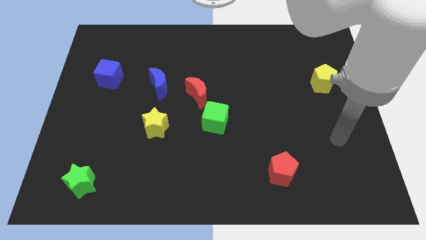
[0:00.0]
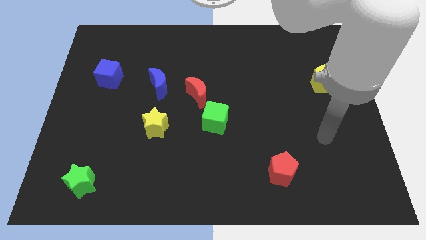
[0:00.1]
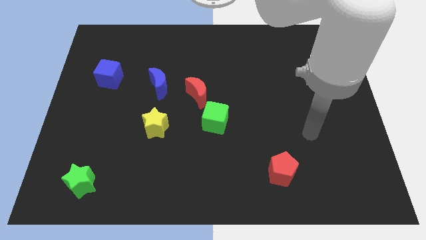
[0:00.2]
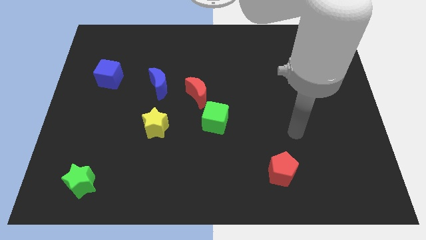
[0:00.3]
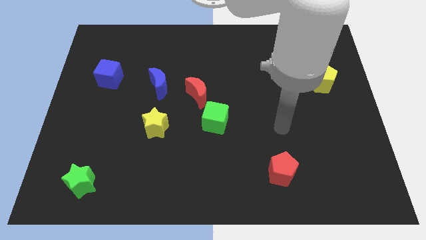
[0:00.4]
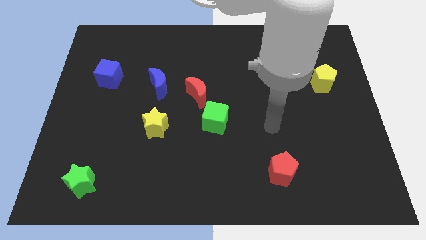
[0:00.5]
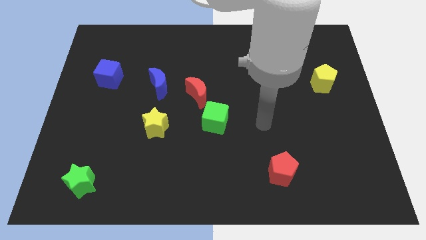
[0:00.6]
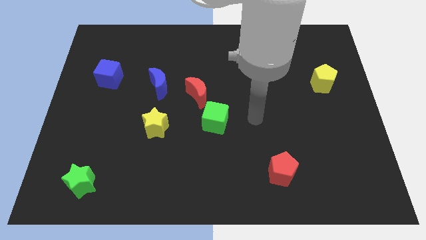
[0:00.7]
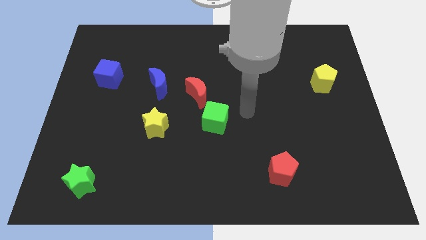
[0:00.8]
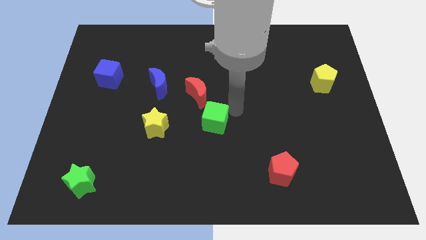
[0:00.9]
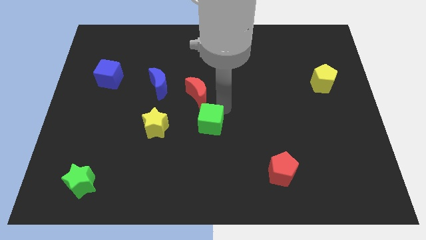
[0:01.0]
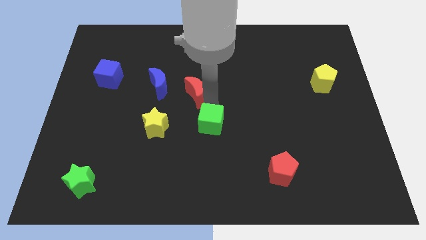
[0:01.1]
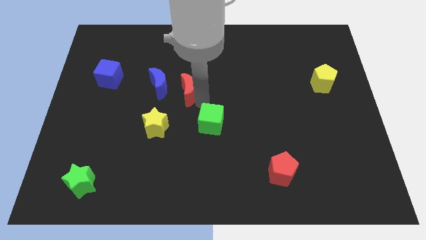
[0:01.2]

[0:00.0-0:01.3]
move the green cube away from the red moon

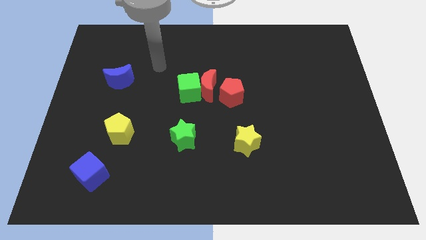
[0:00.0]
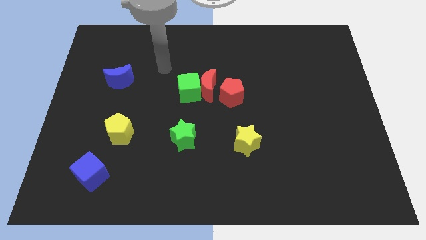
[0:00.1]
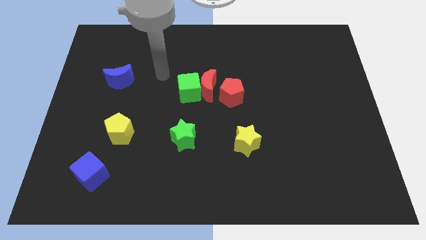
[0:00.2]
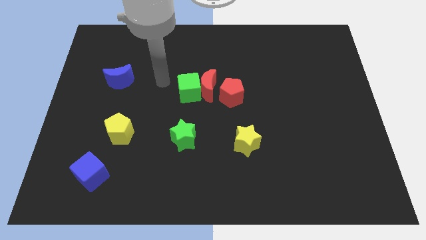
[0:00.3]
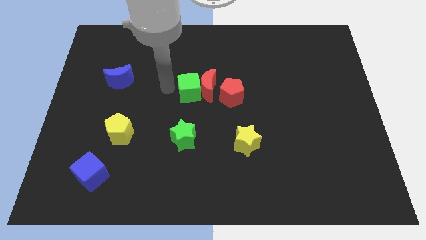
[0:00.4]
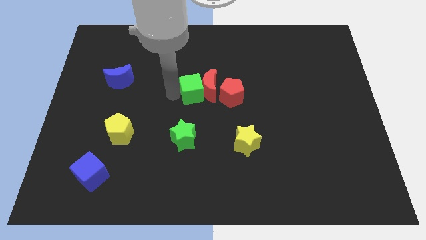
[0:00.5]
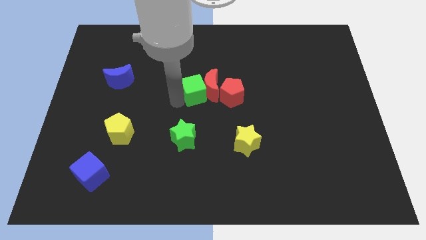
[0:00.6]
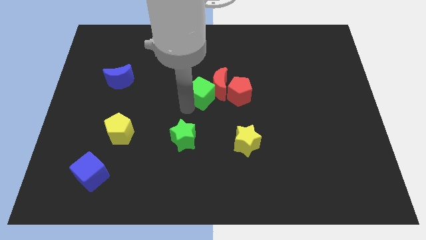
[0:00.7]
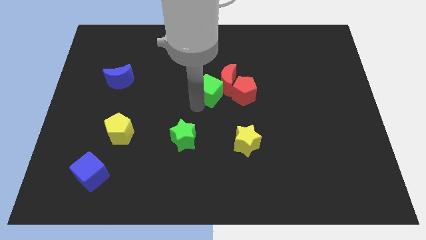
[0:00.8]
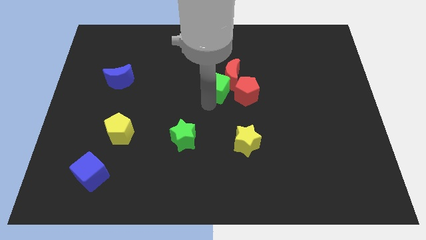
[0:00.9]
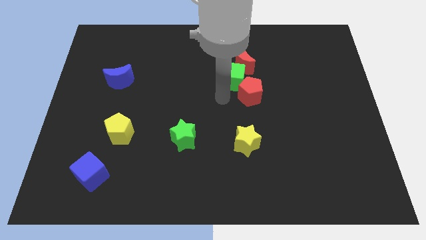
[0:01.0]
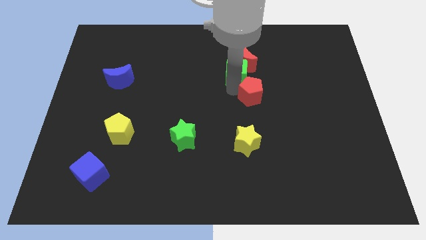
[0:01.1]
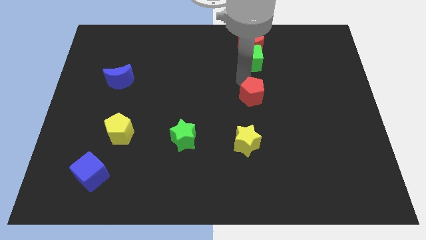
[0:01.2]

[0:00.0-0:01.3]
pull the red moon apart from the green cube and red pentagon

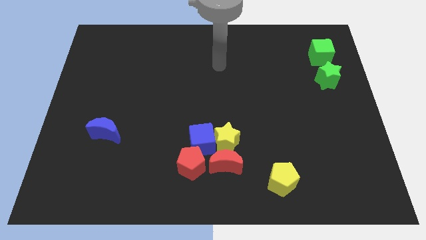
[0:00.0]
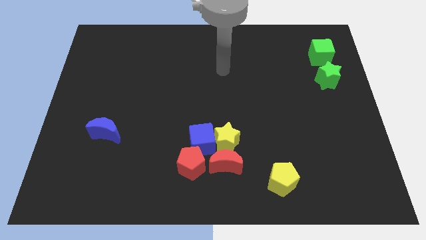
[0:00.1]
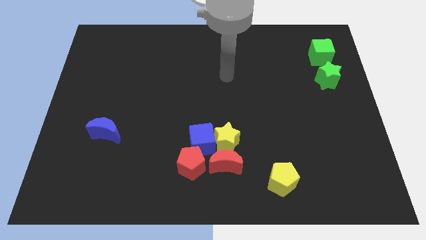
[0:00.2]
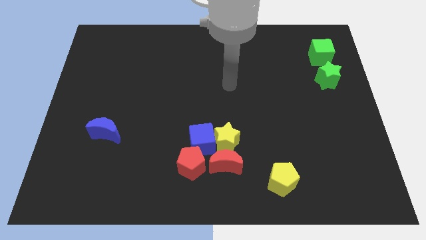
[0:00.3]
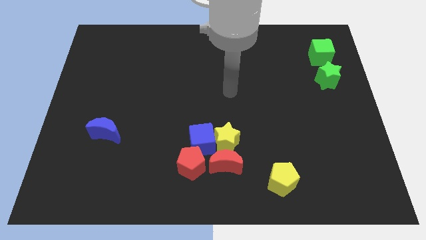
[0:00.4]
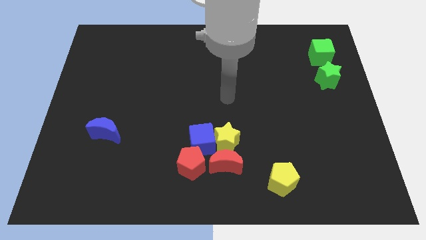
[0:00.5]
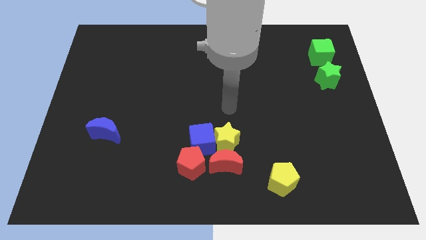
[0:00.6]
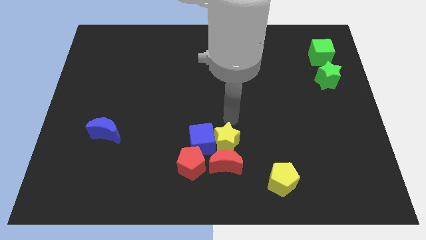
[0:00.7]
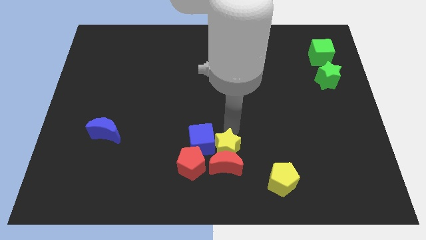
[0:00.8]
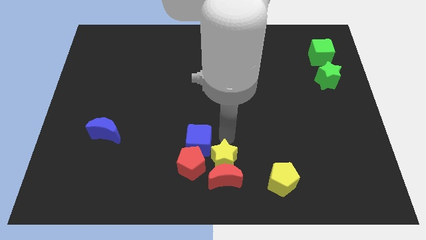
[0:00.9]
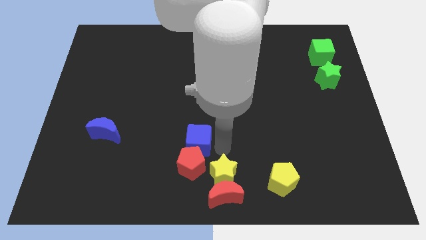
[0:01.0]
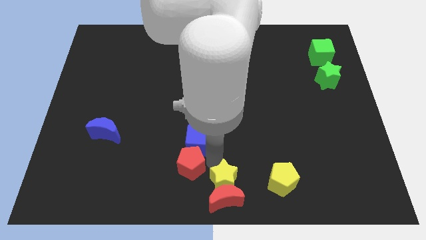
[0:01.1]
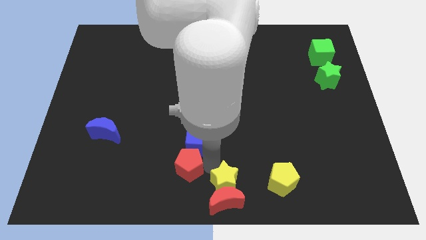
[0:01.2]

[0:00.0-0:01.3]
pull the blue cube apart from the group of blocks

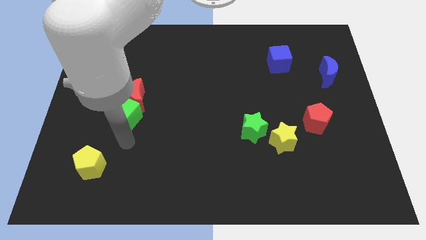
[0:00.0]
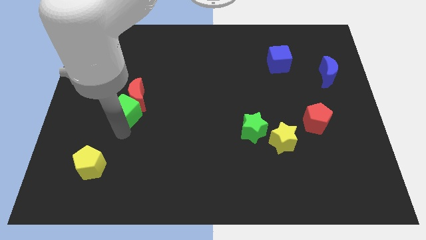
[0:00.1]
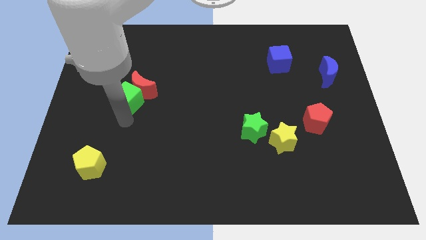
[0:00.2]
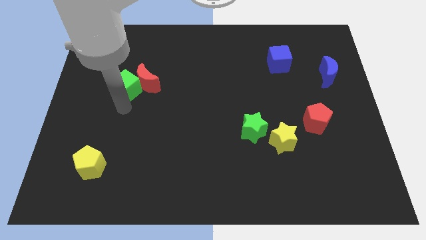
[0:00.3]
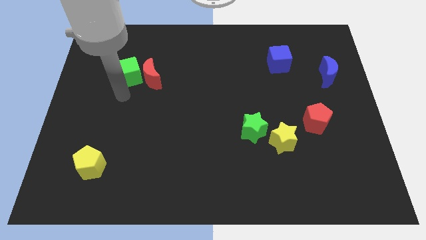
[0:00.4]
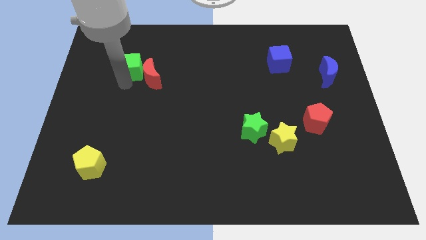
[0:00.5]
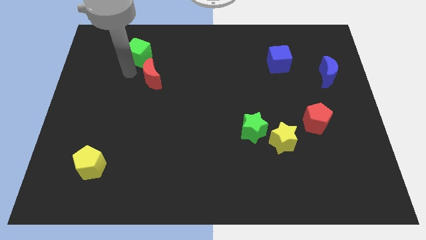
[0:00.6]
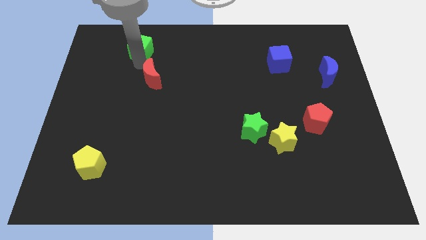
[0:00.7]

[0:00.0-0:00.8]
pull the red moon apart from the green cube

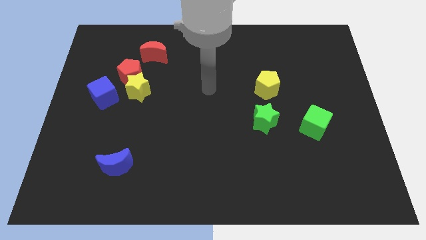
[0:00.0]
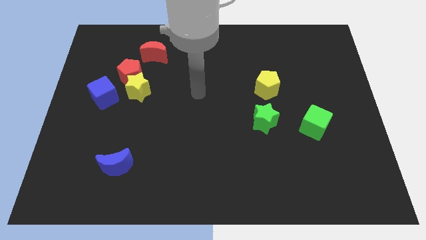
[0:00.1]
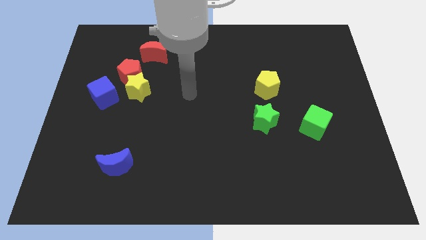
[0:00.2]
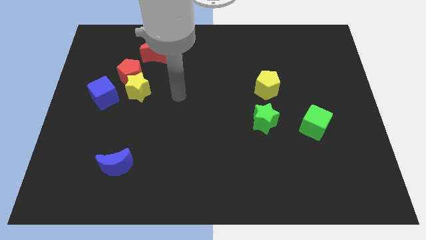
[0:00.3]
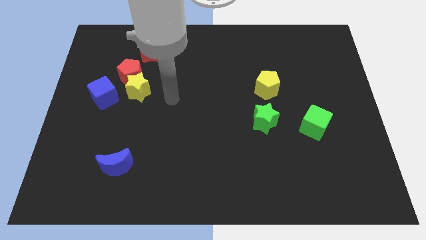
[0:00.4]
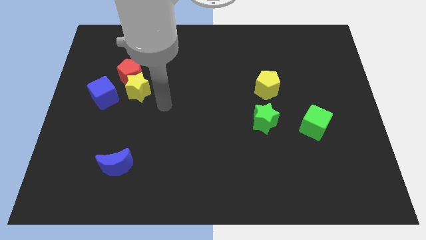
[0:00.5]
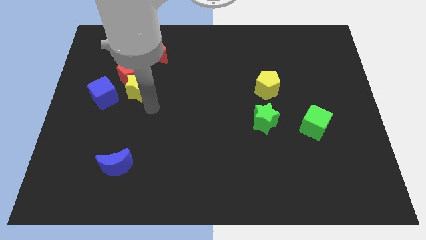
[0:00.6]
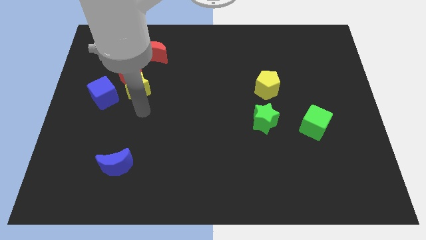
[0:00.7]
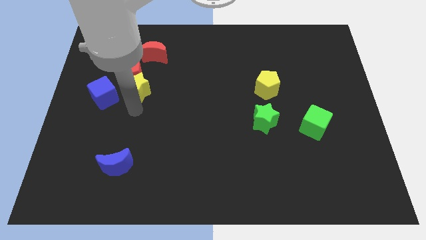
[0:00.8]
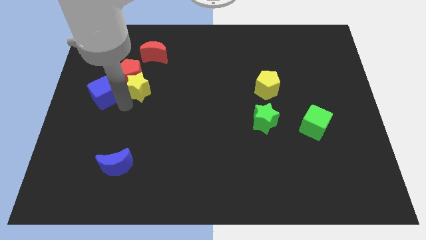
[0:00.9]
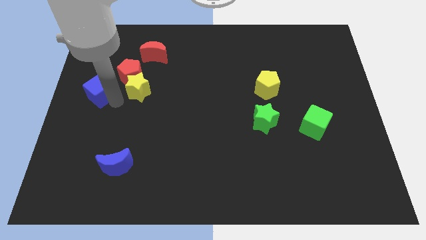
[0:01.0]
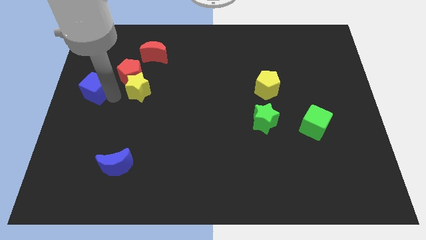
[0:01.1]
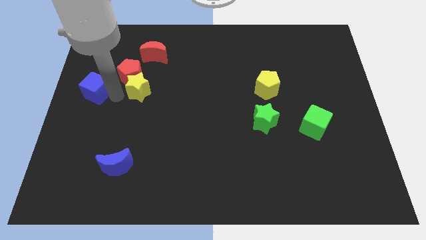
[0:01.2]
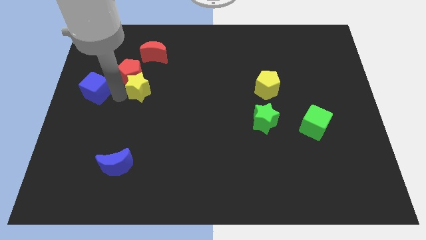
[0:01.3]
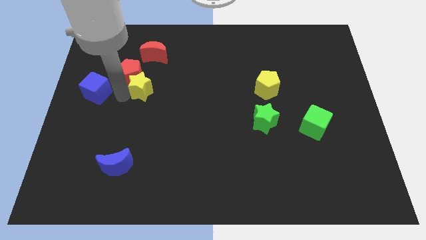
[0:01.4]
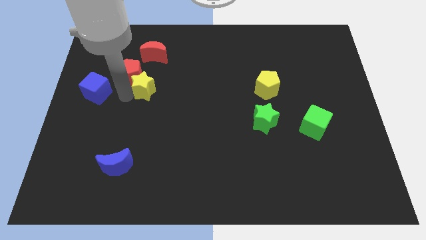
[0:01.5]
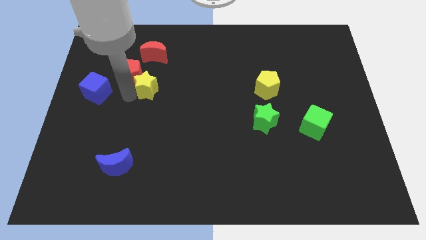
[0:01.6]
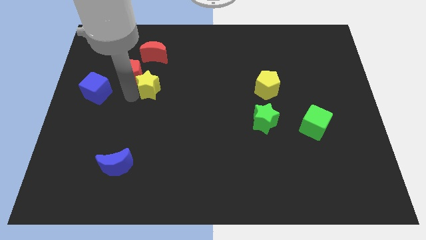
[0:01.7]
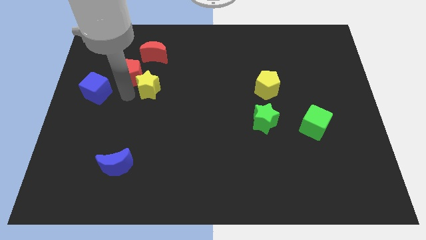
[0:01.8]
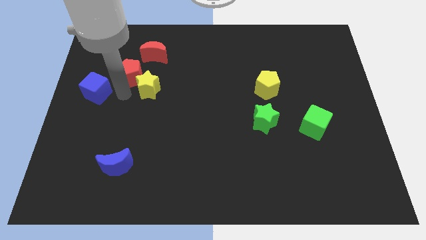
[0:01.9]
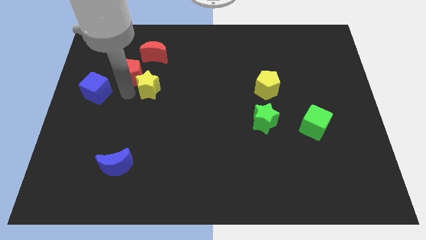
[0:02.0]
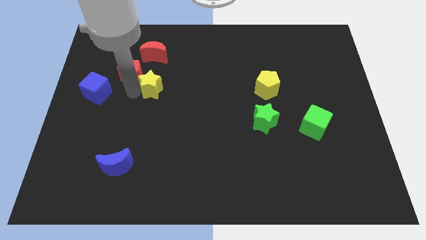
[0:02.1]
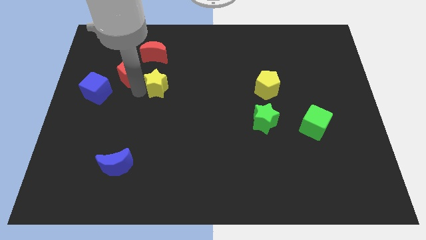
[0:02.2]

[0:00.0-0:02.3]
separate the yellow star from the red pentagon and blue cube

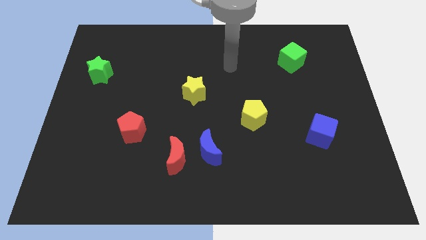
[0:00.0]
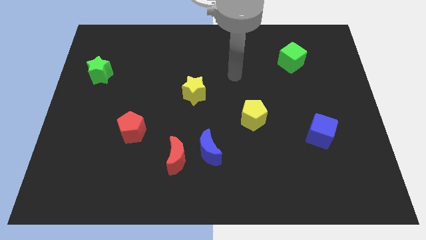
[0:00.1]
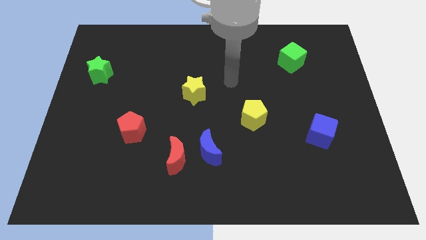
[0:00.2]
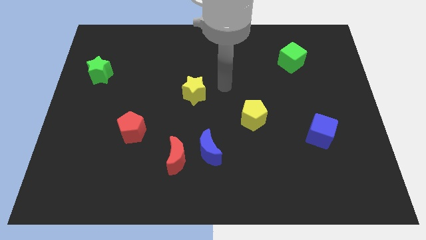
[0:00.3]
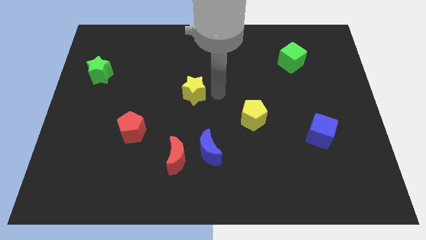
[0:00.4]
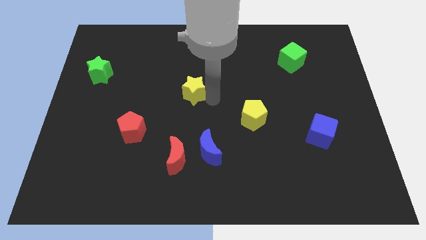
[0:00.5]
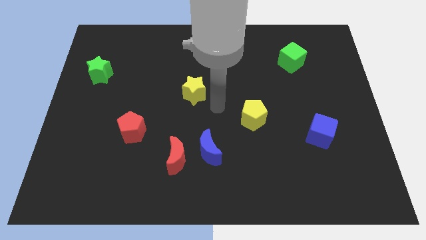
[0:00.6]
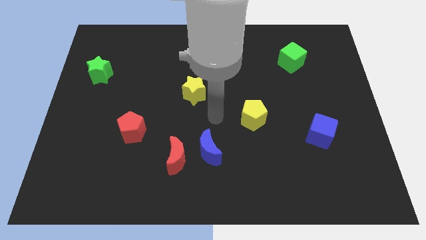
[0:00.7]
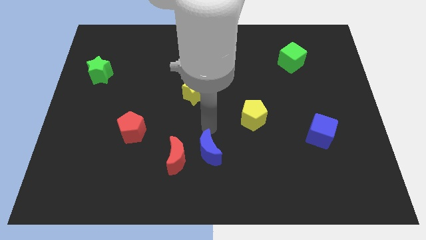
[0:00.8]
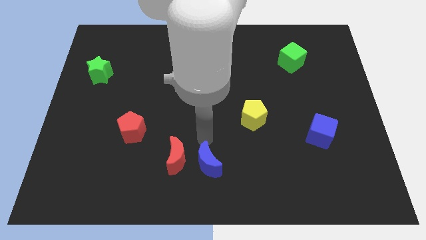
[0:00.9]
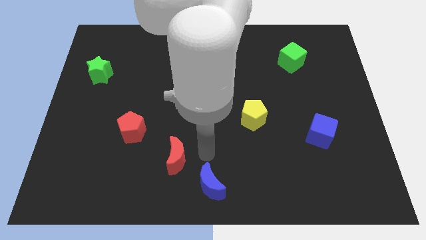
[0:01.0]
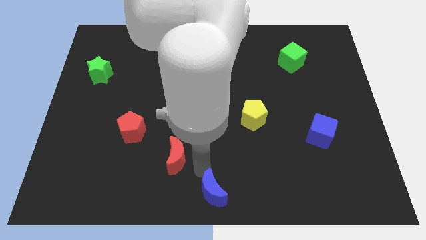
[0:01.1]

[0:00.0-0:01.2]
separate the red moon from the blue moon

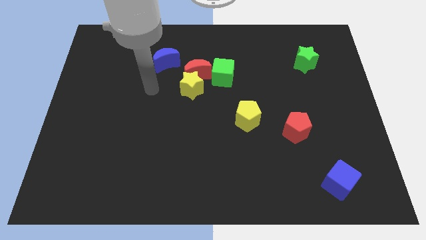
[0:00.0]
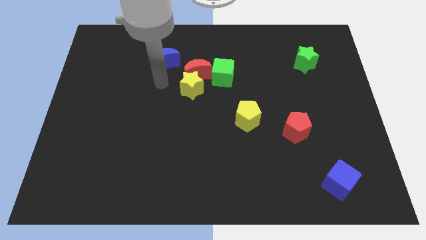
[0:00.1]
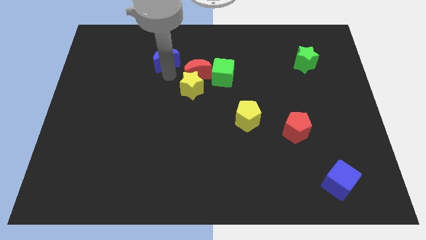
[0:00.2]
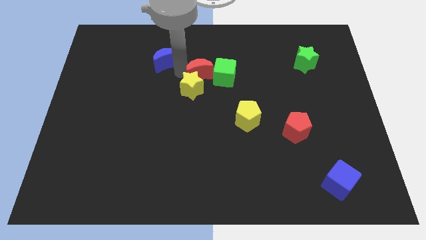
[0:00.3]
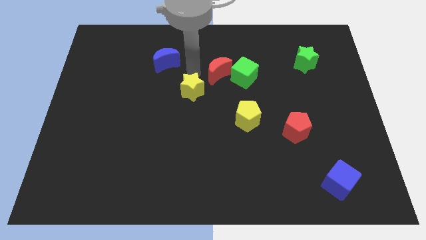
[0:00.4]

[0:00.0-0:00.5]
move the yellow star away from the red moon and green cube

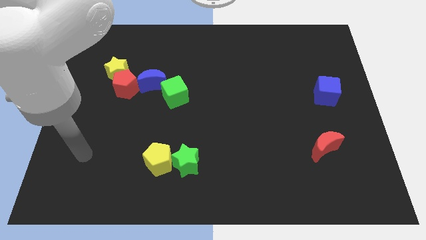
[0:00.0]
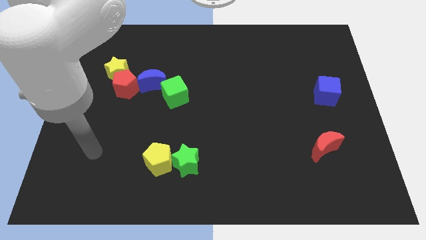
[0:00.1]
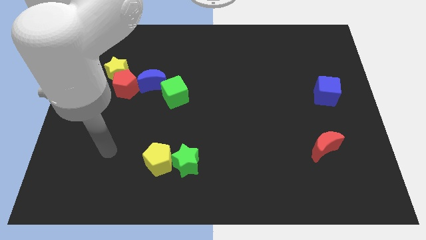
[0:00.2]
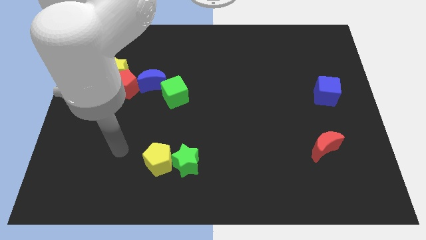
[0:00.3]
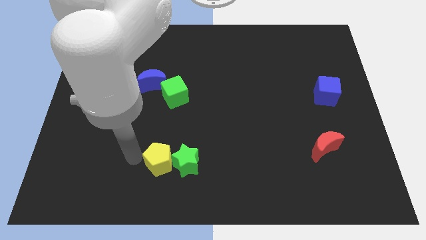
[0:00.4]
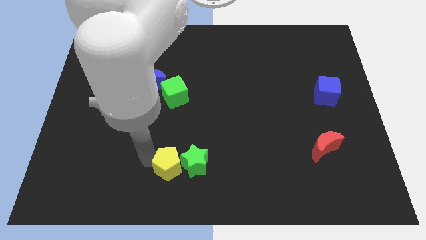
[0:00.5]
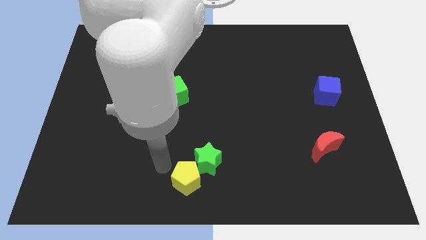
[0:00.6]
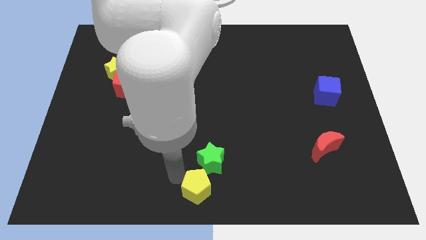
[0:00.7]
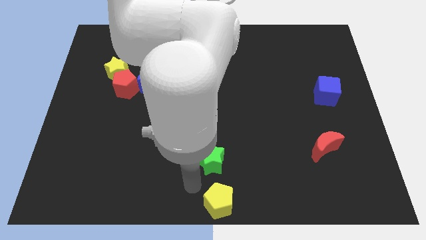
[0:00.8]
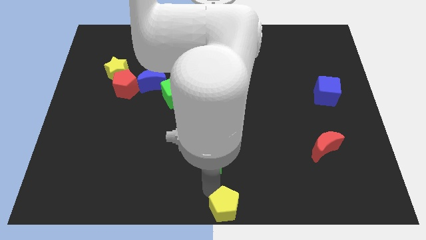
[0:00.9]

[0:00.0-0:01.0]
separate the green star from the yellow pentagon
